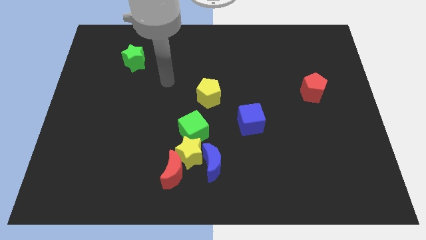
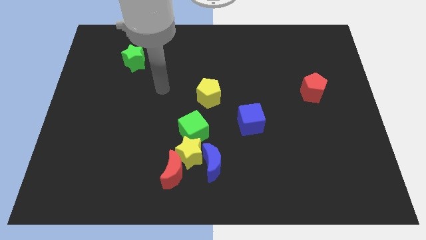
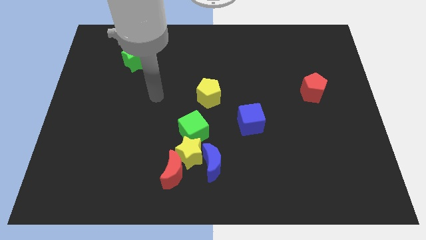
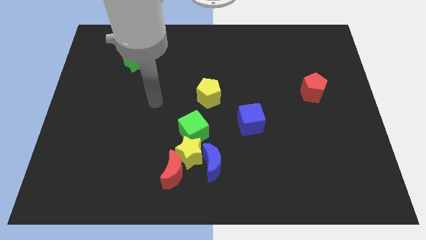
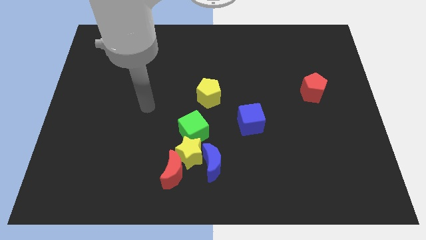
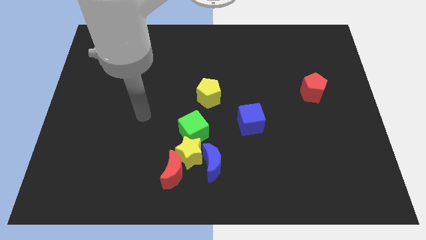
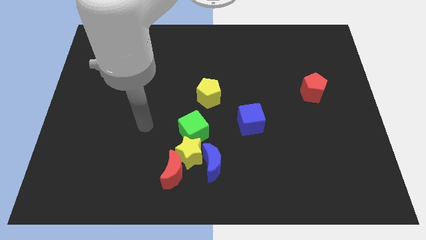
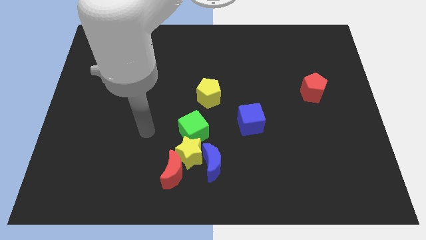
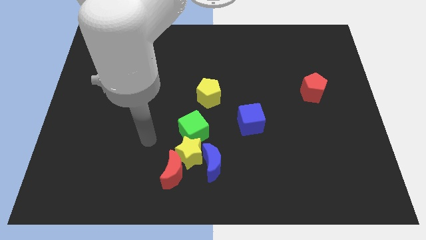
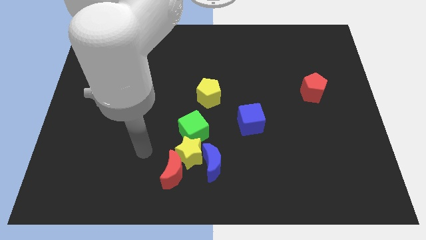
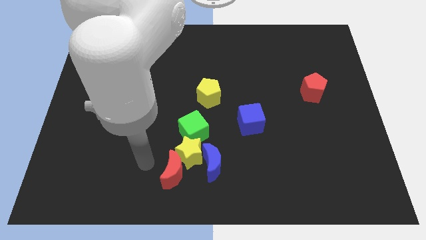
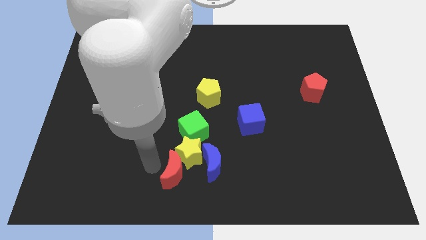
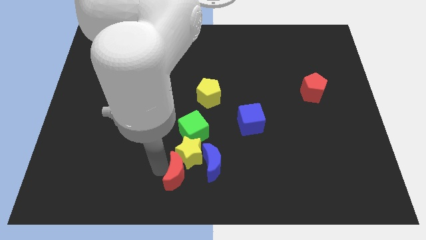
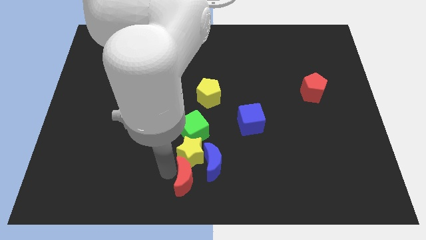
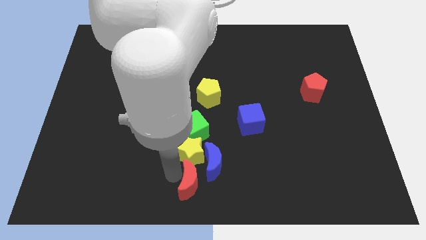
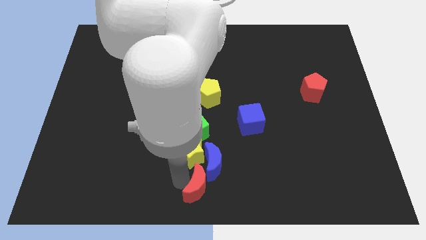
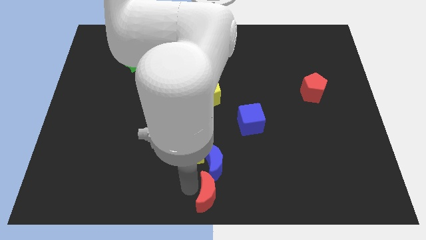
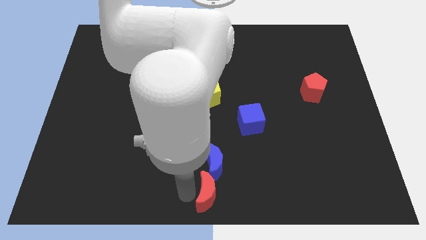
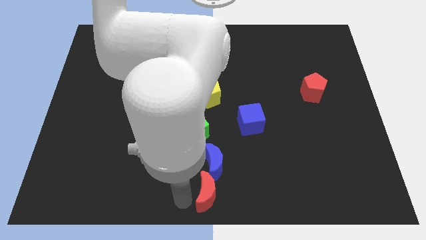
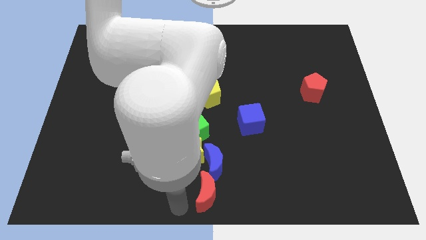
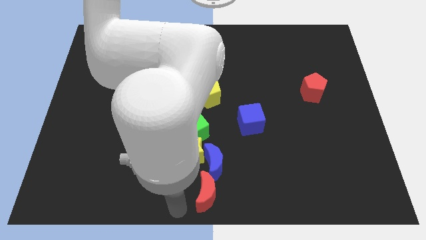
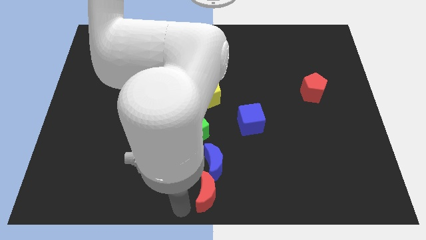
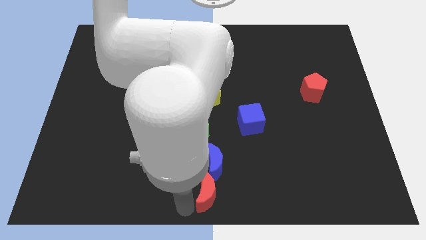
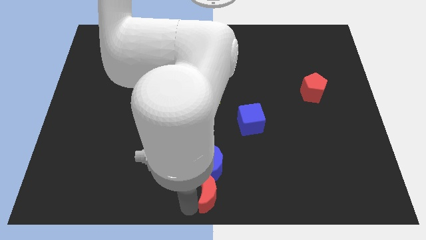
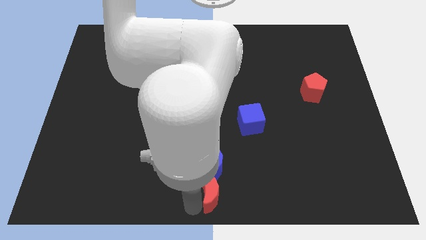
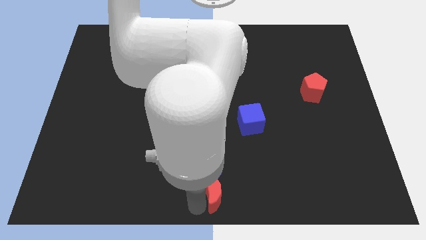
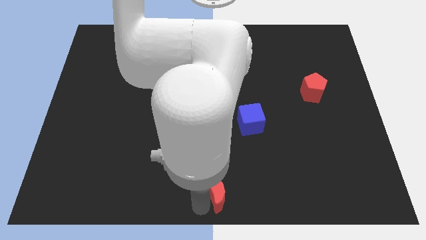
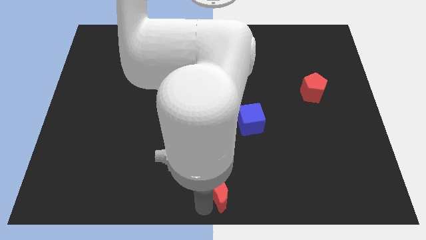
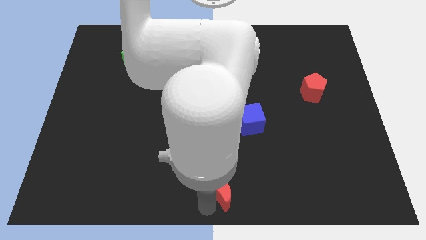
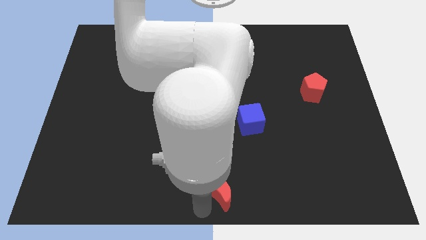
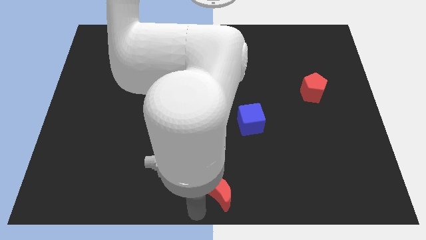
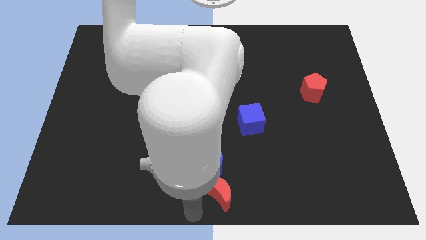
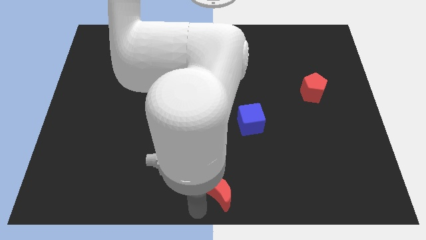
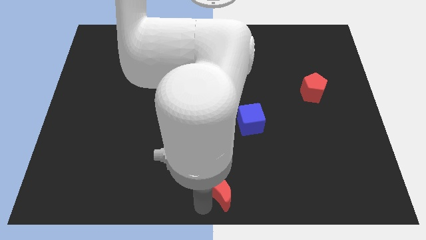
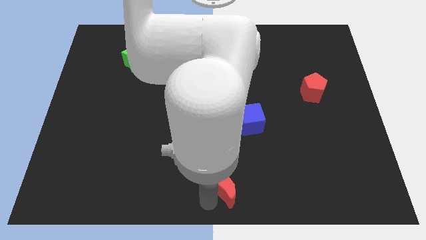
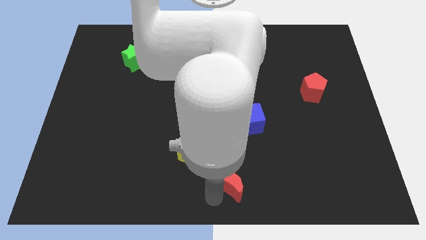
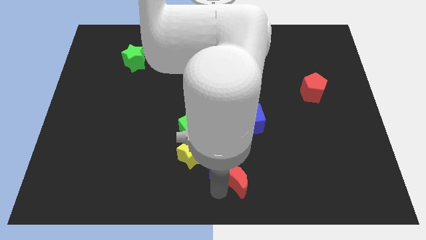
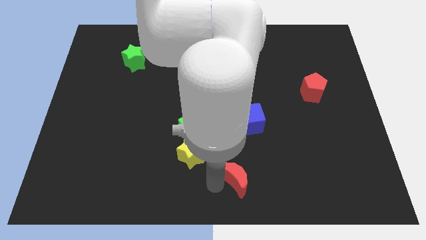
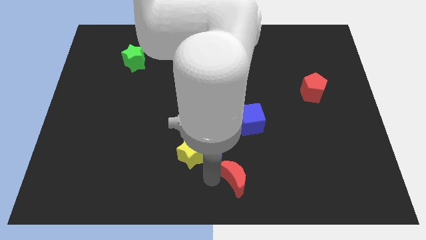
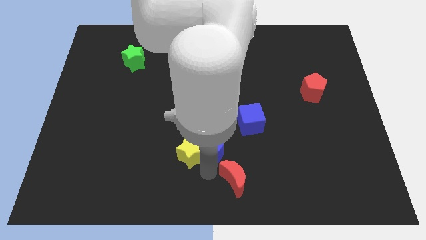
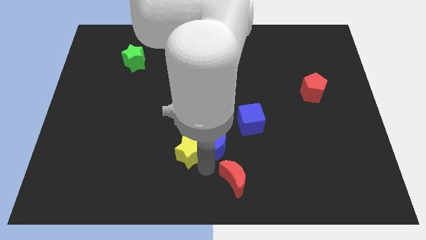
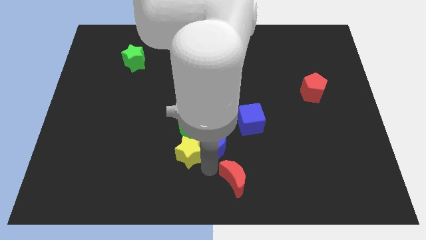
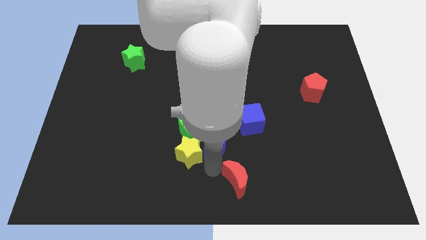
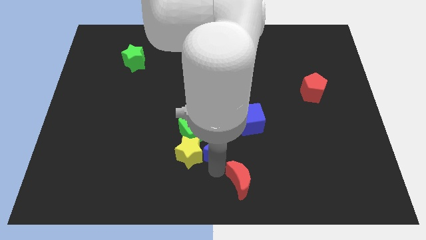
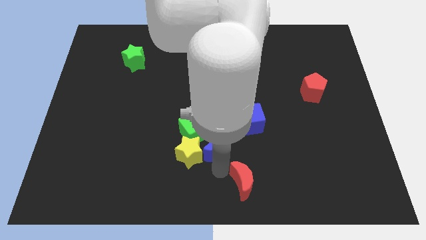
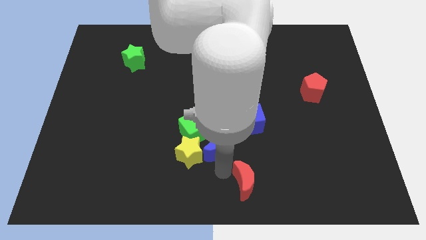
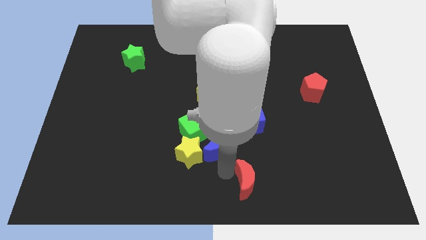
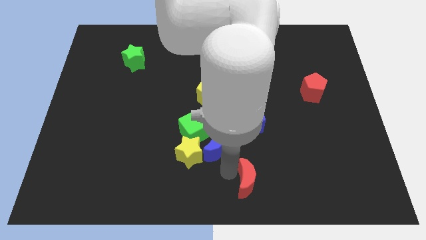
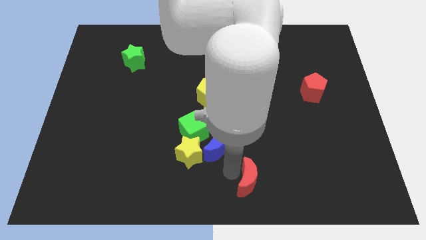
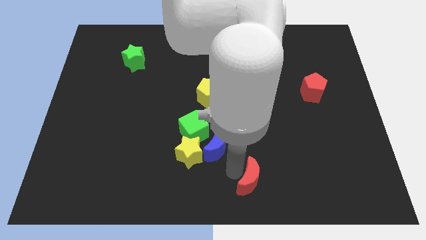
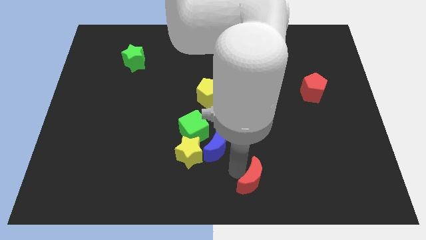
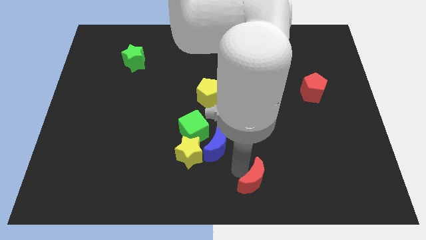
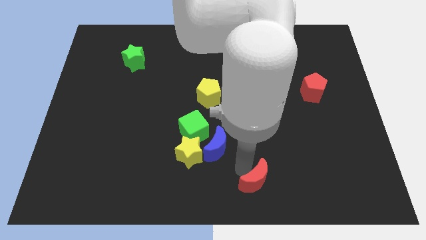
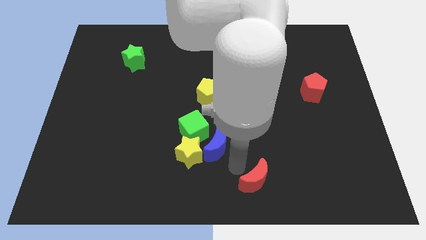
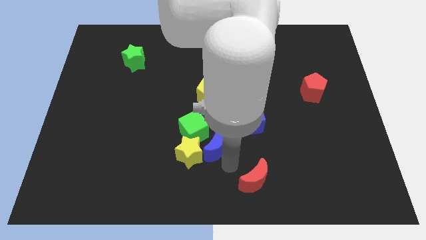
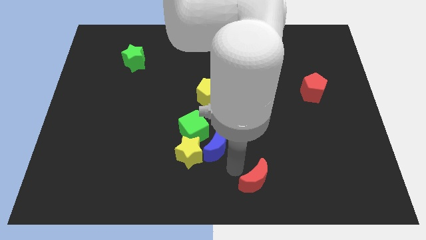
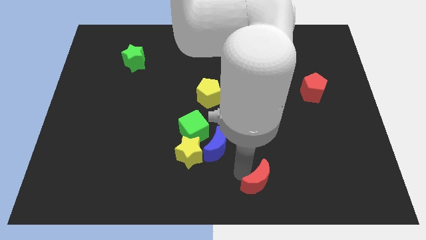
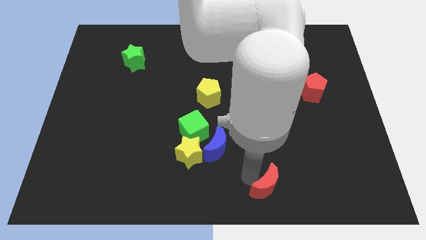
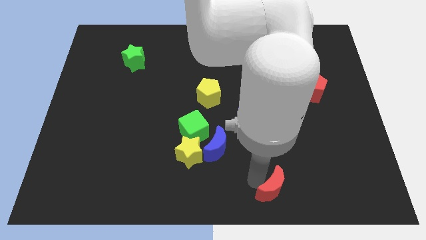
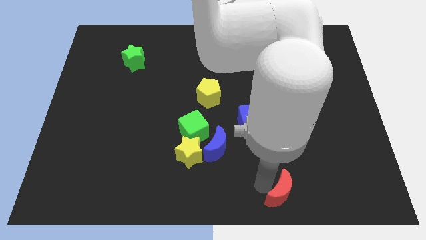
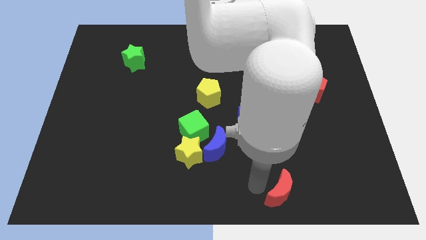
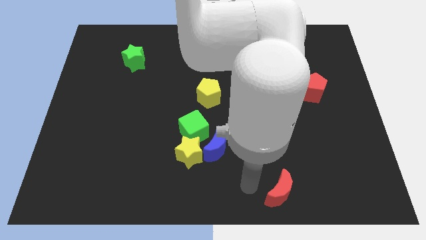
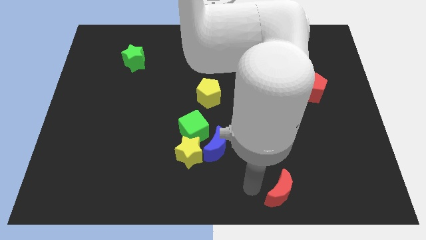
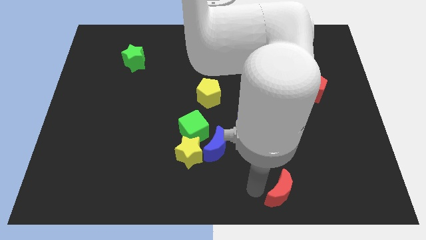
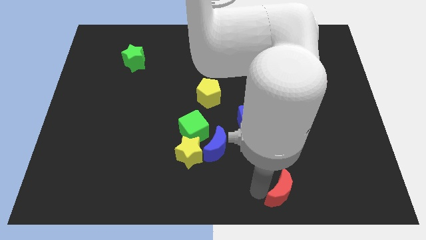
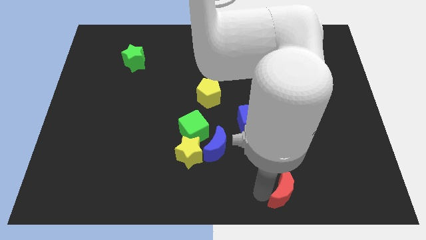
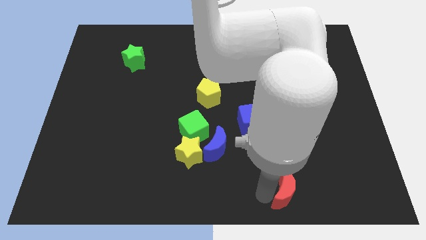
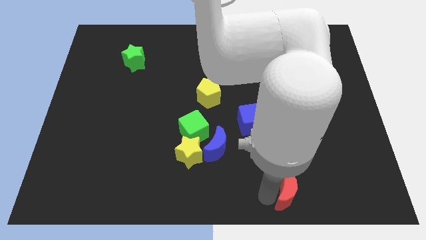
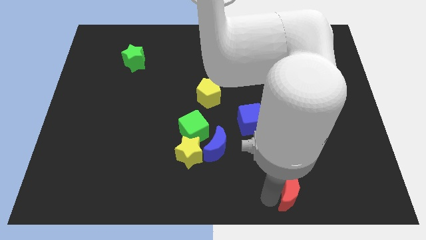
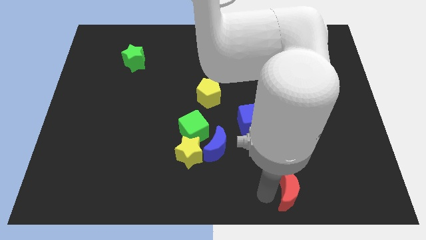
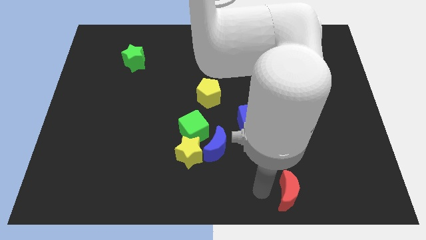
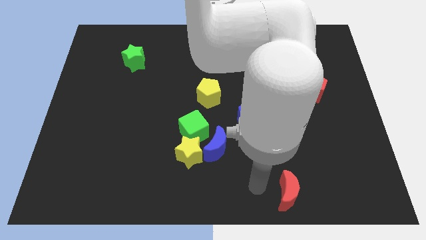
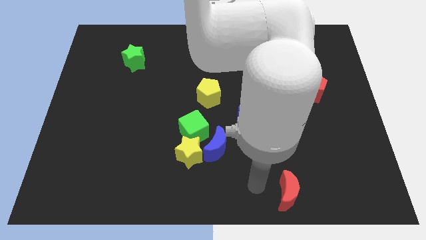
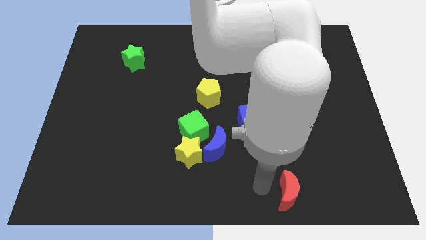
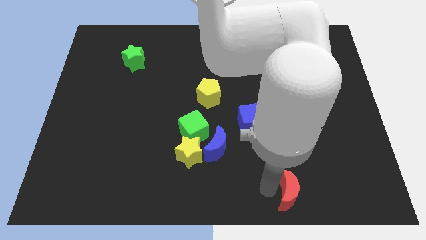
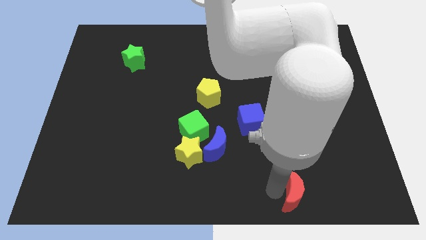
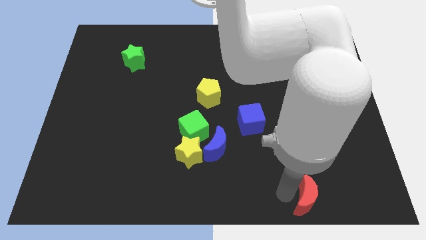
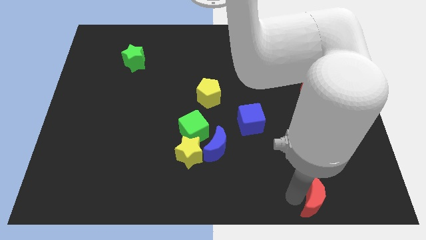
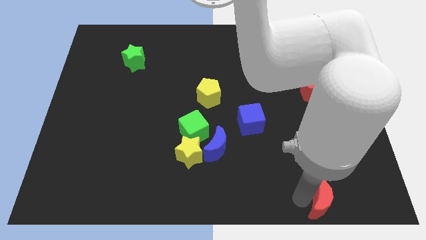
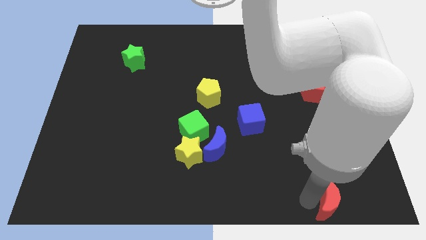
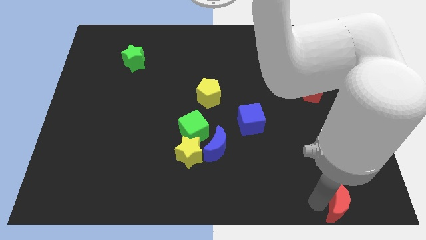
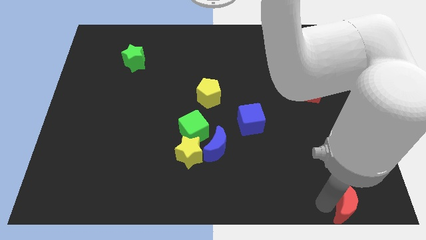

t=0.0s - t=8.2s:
move the red moon to the bottom right
